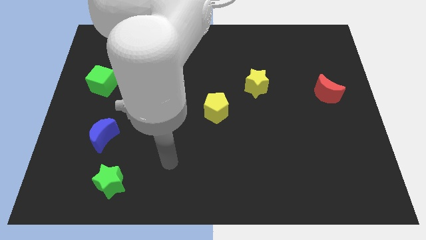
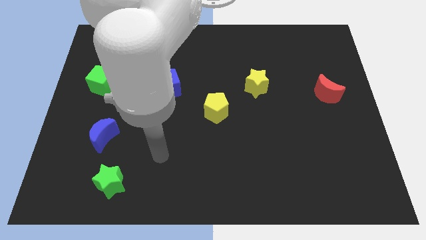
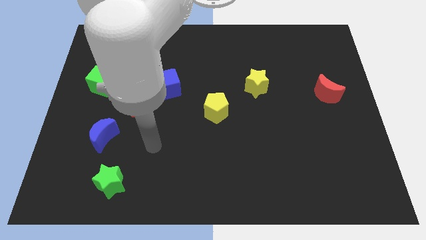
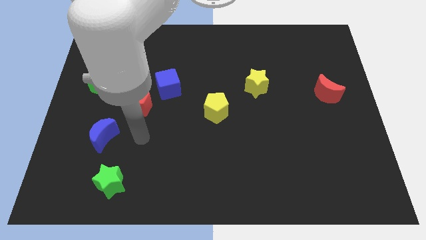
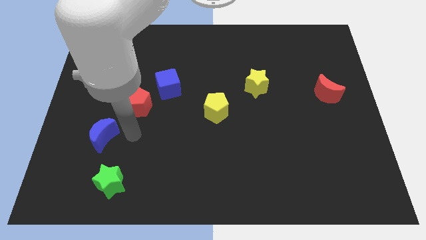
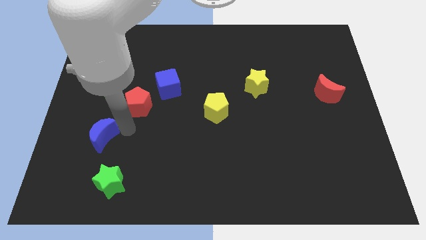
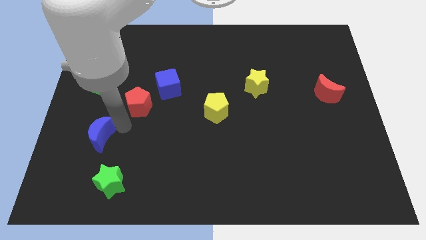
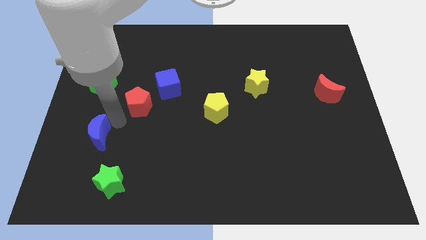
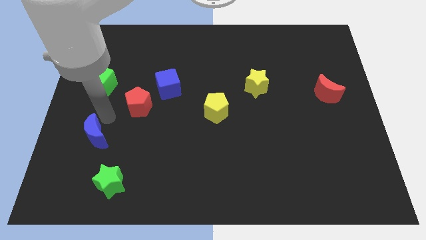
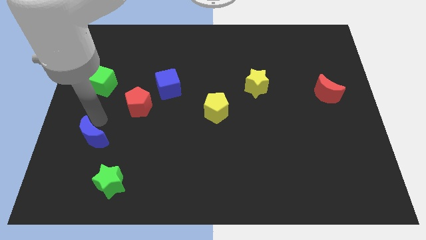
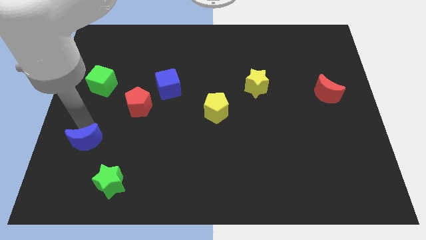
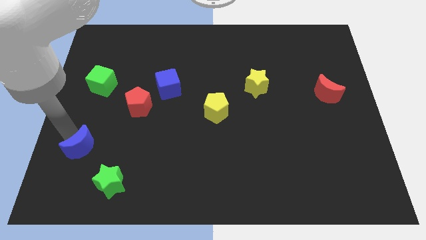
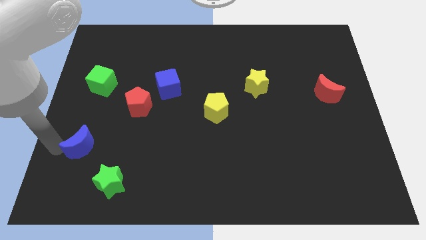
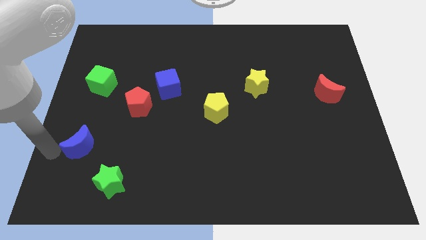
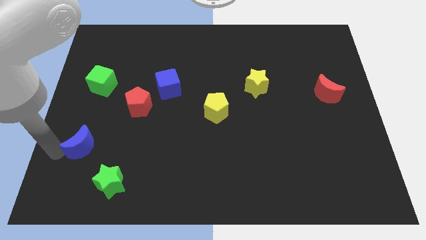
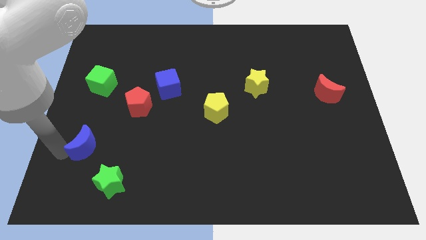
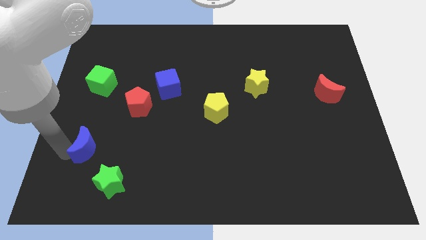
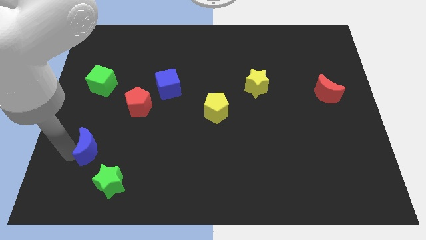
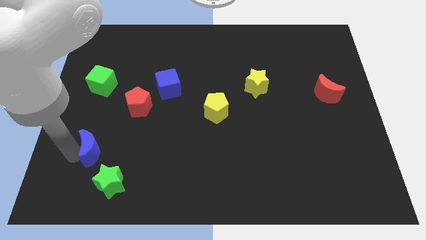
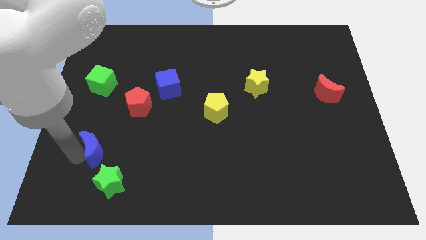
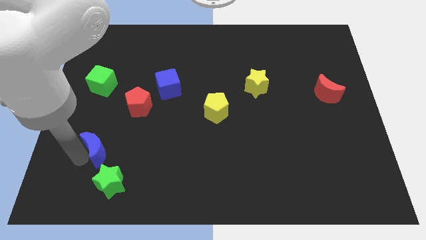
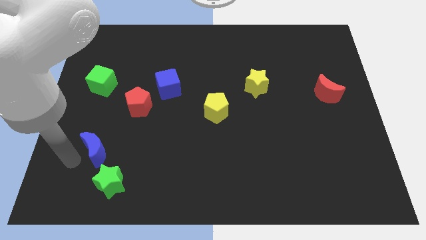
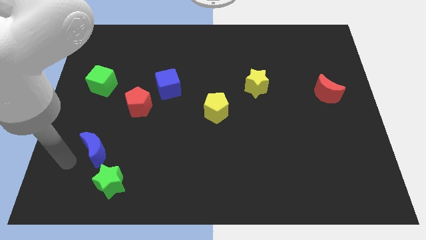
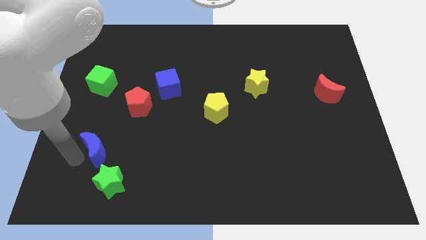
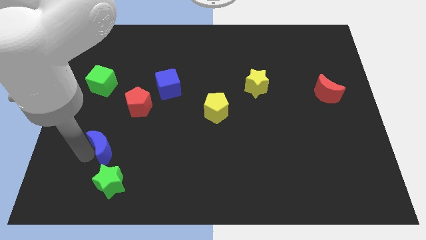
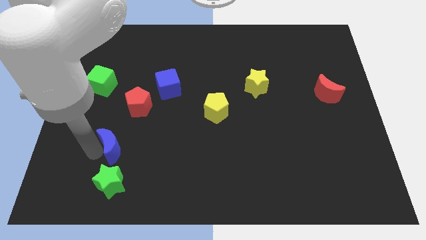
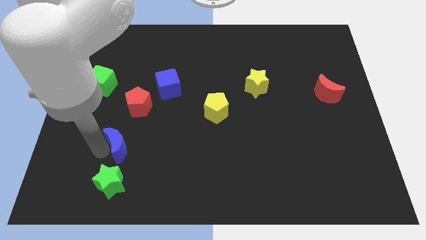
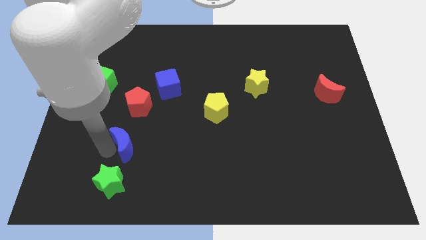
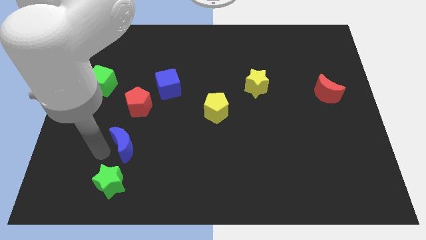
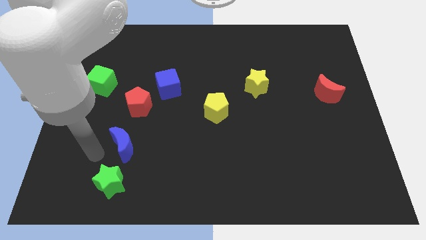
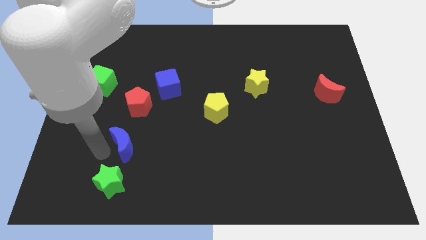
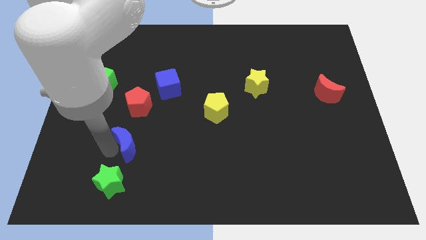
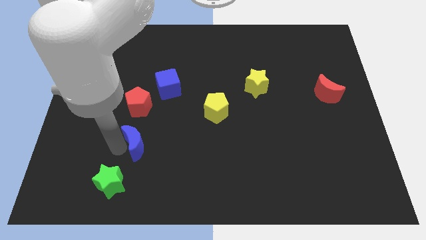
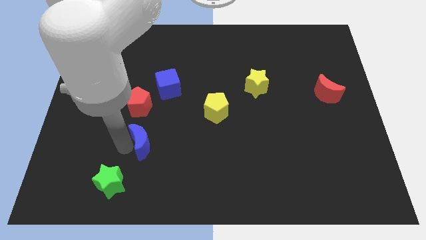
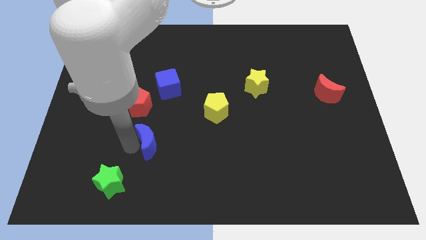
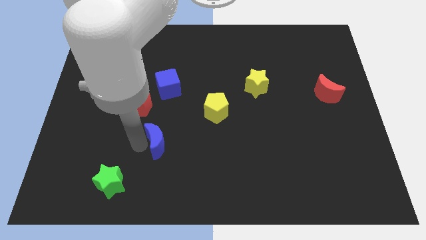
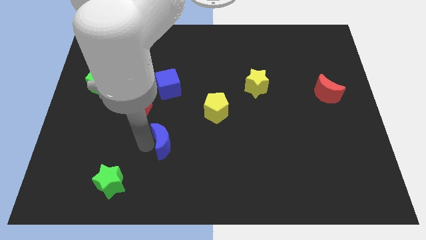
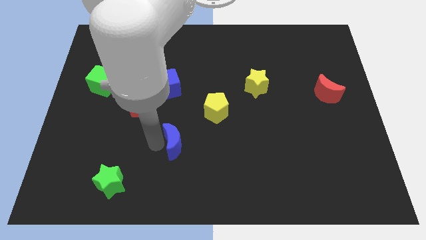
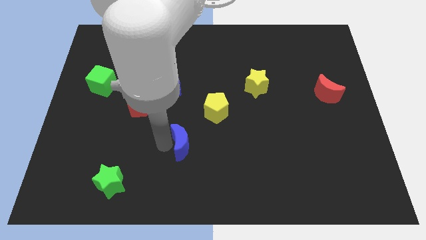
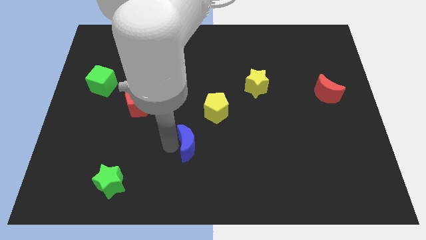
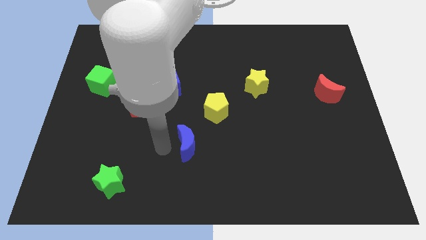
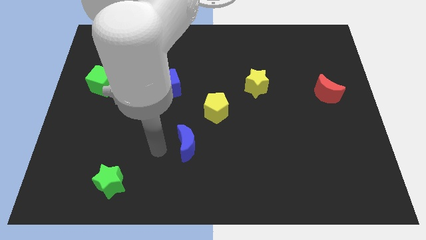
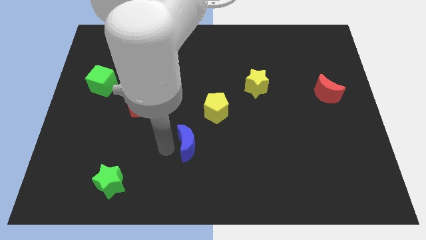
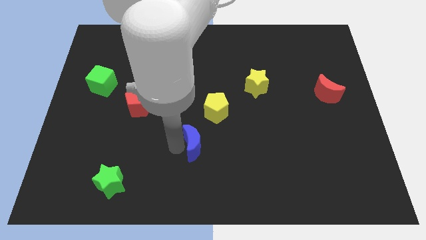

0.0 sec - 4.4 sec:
slide the blue moon right

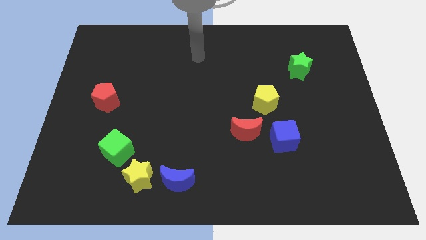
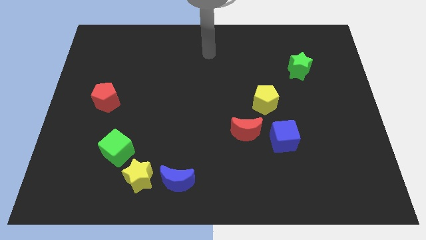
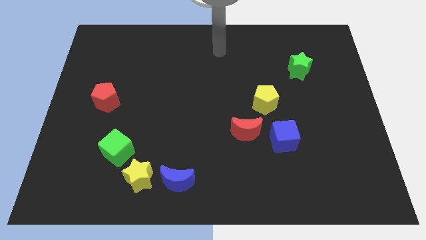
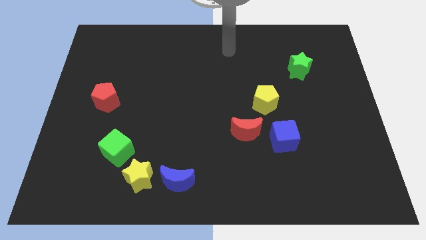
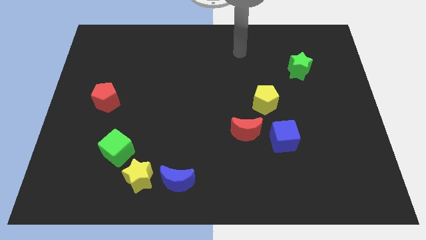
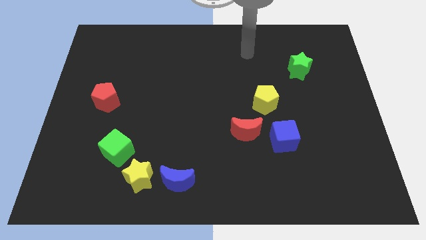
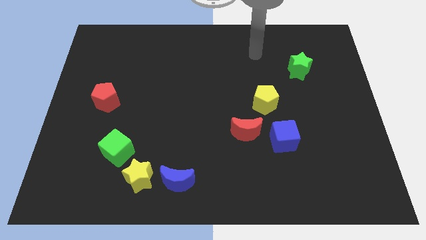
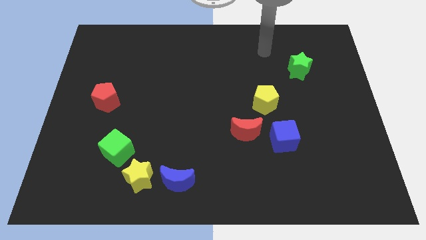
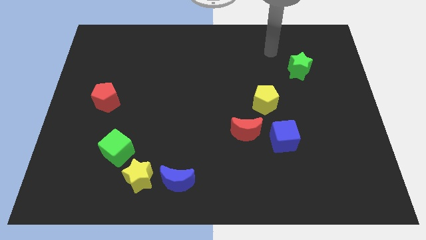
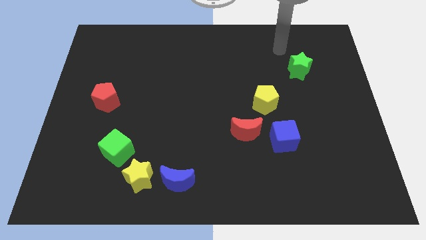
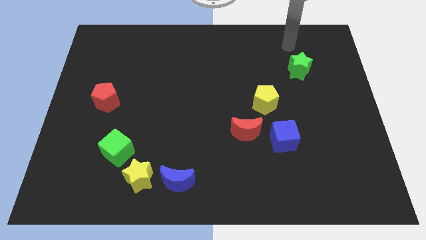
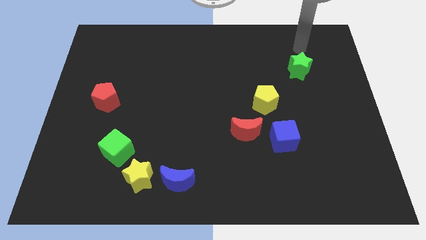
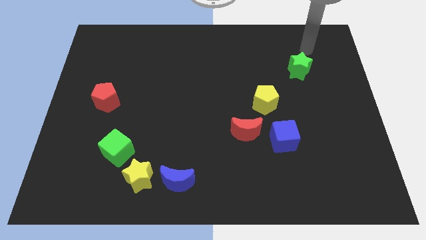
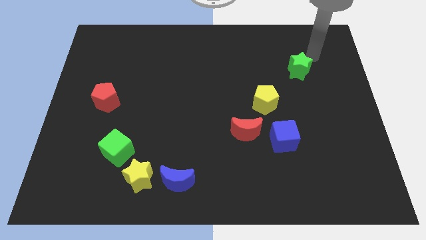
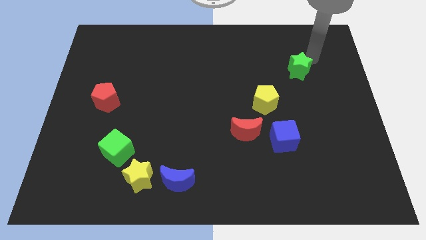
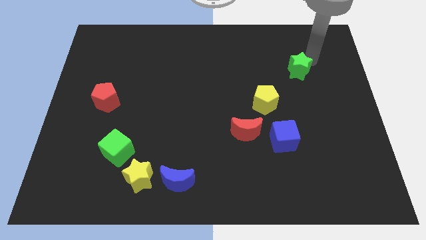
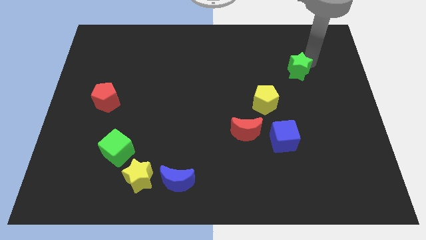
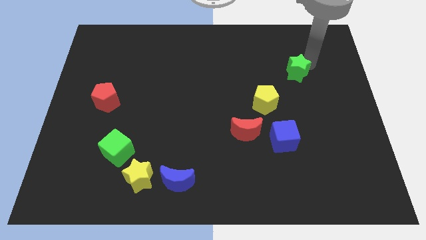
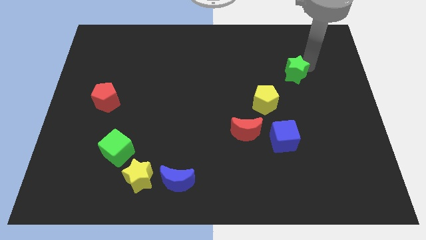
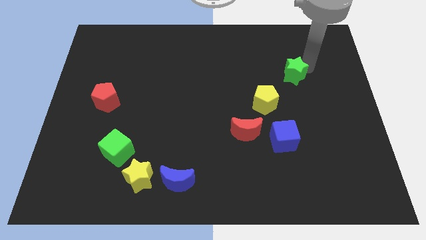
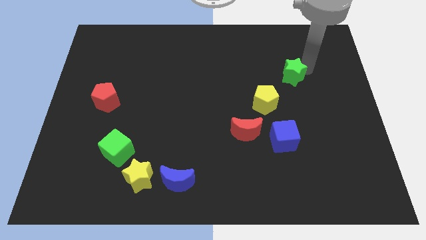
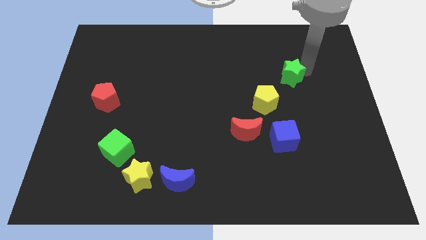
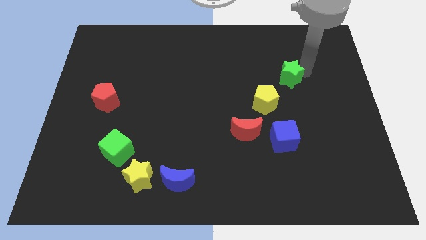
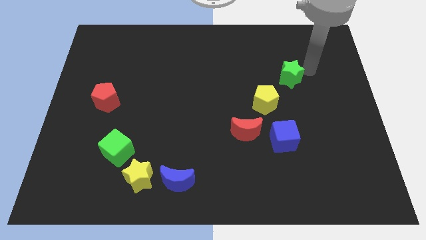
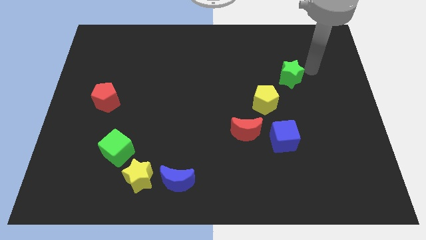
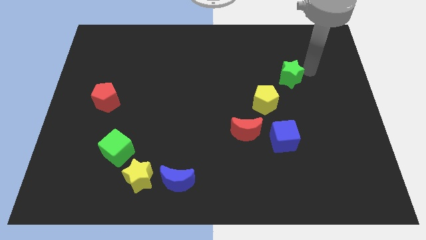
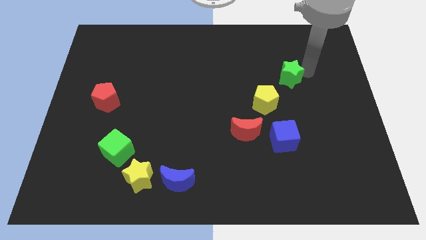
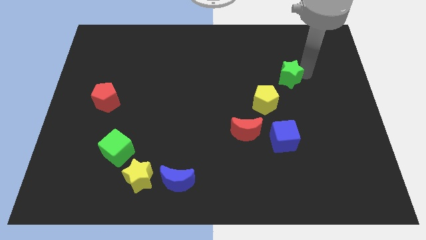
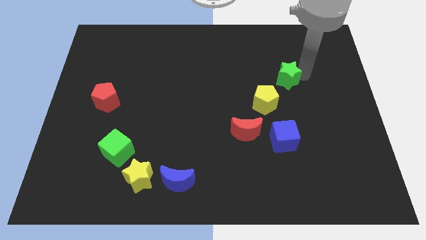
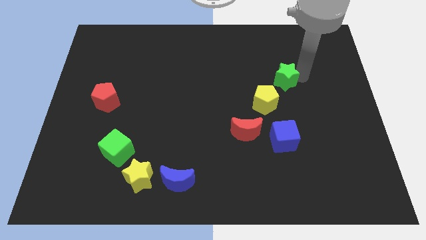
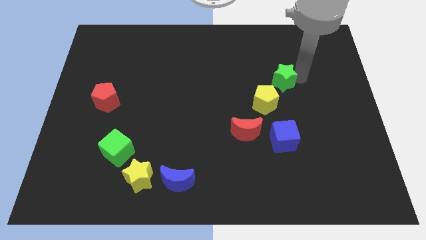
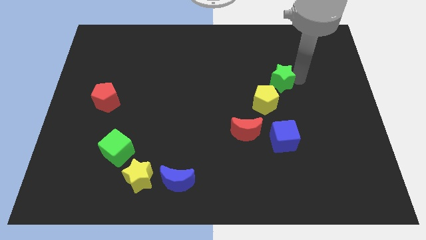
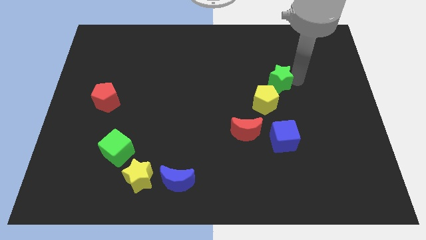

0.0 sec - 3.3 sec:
slightly push the green star down and left

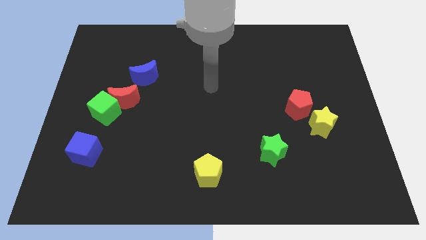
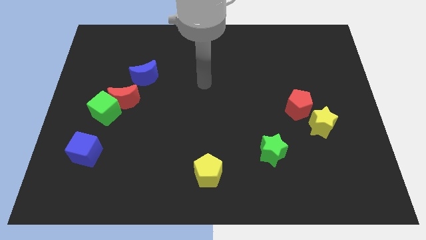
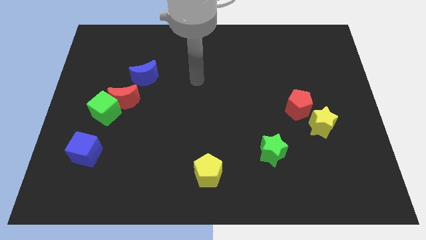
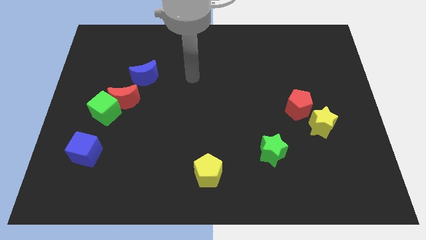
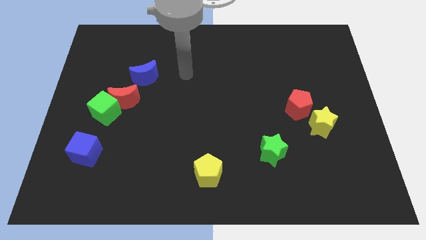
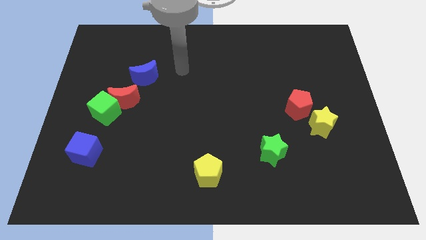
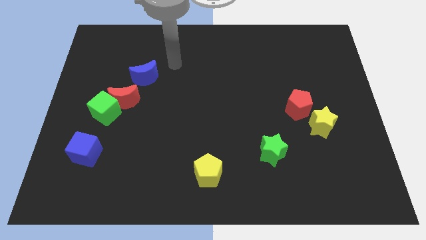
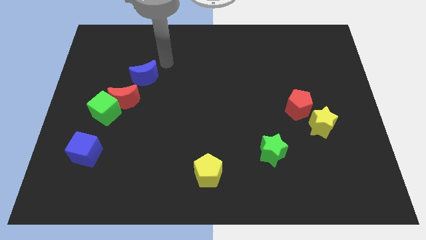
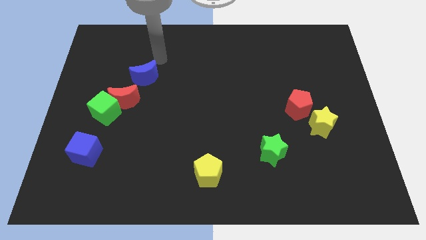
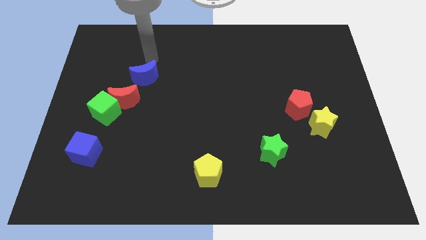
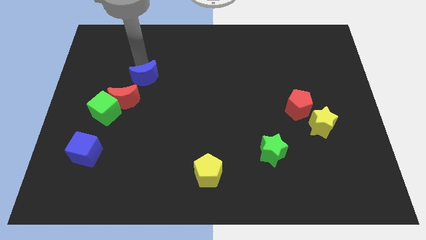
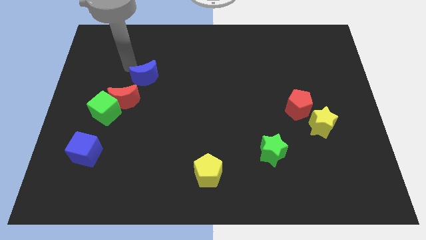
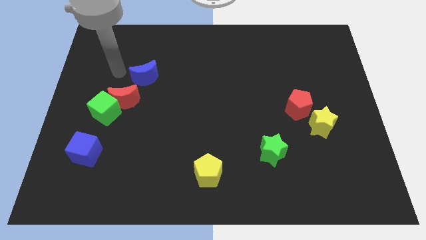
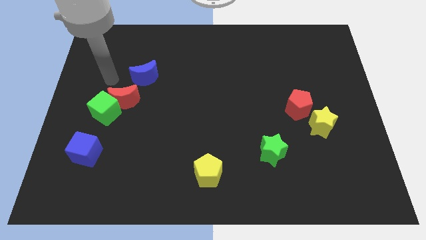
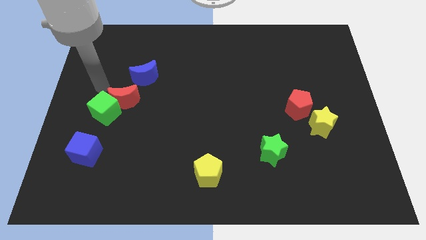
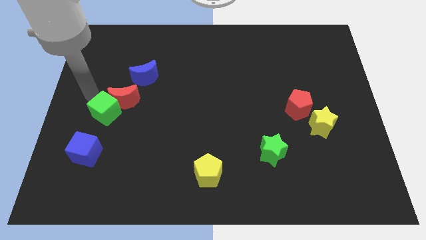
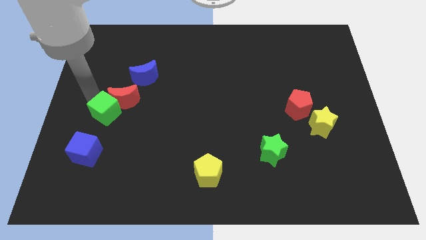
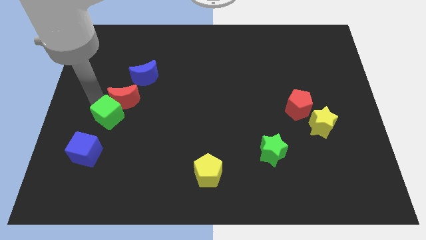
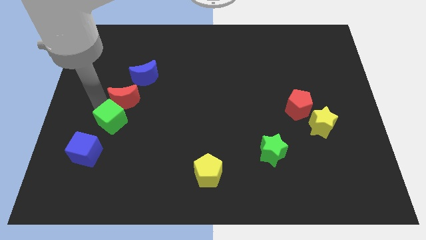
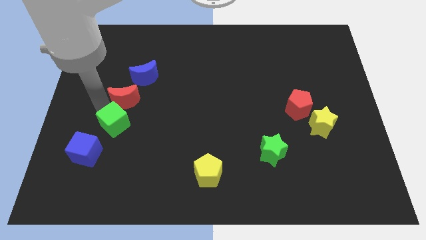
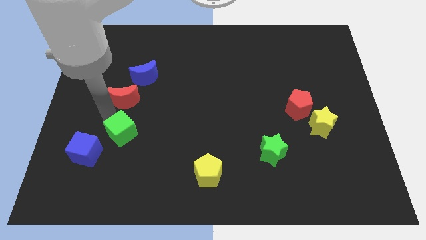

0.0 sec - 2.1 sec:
slightly move the green cube downwards and to the right diagonally
